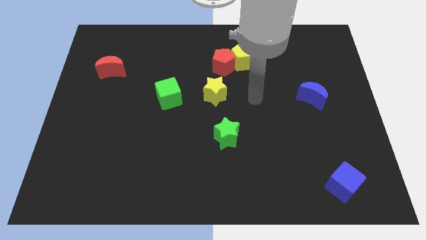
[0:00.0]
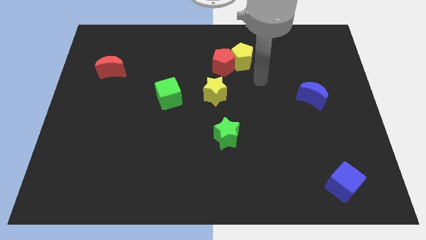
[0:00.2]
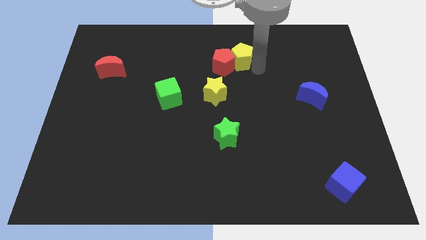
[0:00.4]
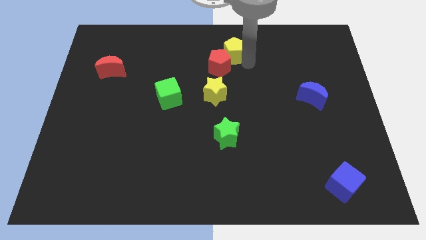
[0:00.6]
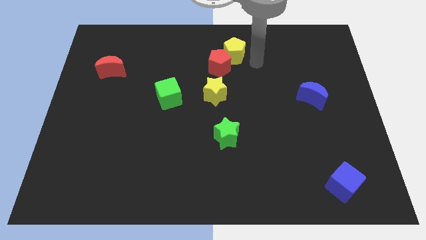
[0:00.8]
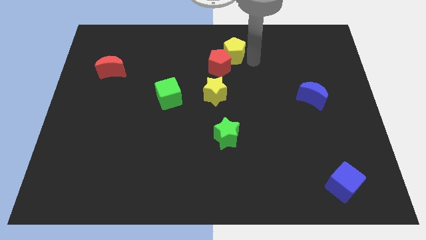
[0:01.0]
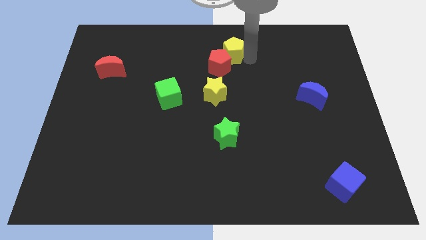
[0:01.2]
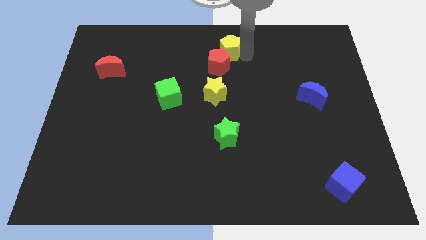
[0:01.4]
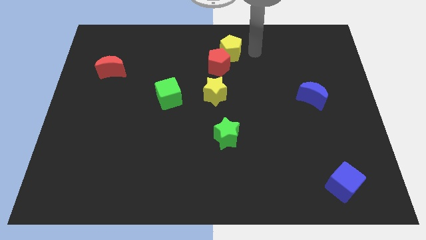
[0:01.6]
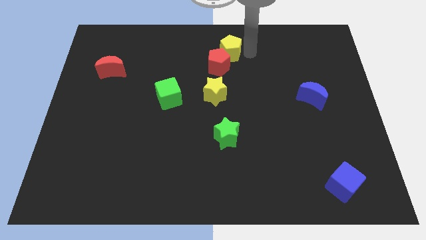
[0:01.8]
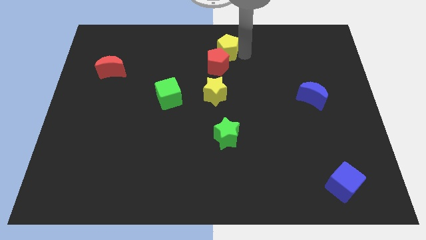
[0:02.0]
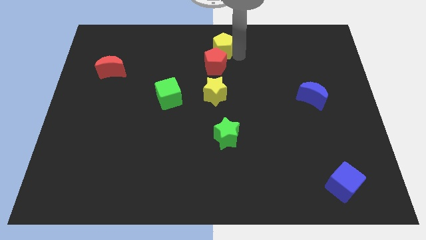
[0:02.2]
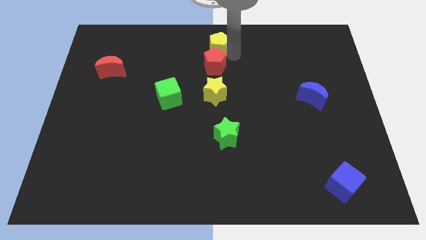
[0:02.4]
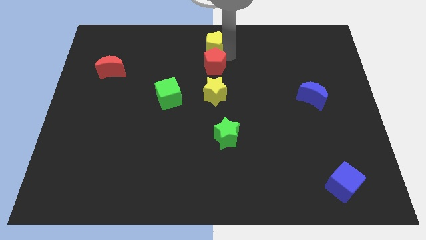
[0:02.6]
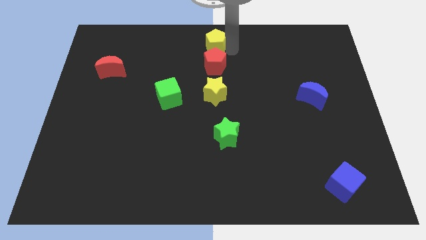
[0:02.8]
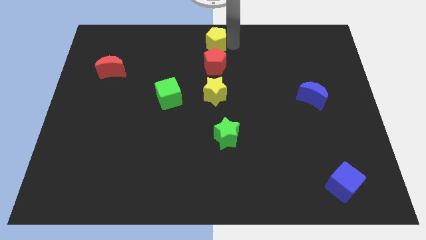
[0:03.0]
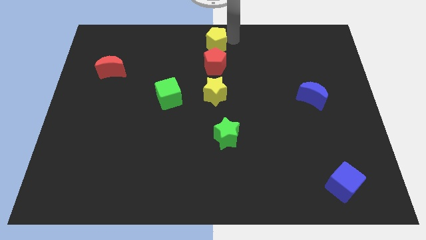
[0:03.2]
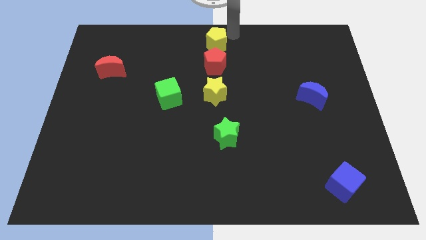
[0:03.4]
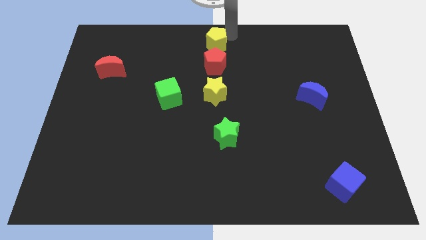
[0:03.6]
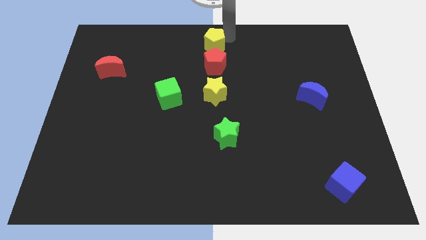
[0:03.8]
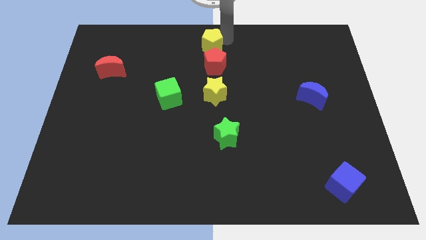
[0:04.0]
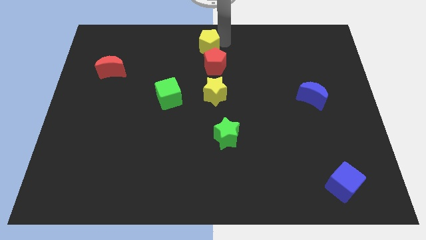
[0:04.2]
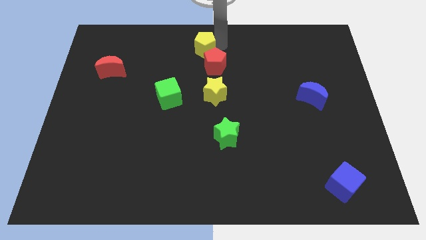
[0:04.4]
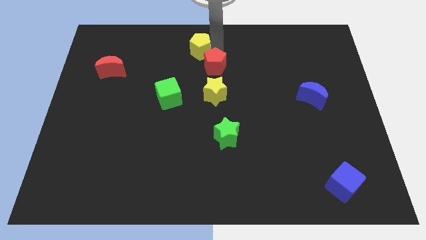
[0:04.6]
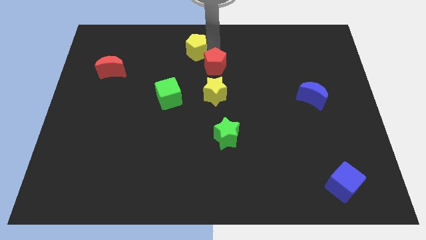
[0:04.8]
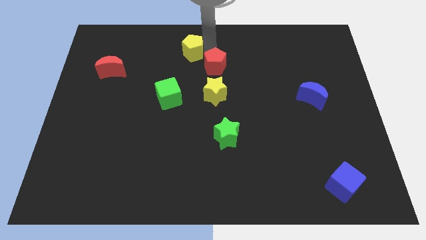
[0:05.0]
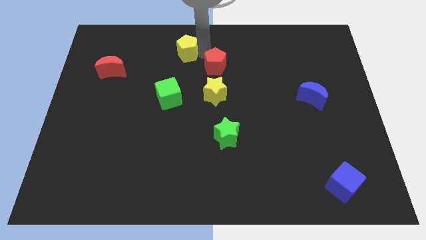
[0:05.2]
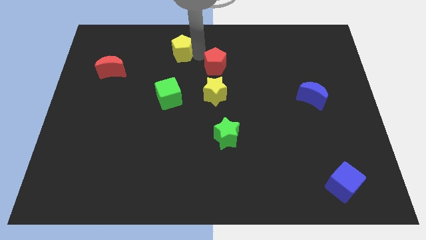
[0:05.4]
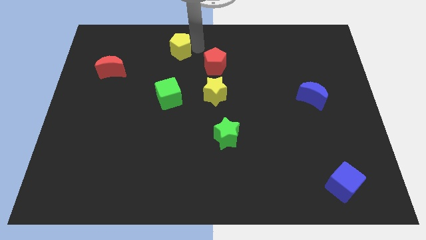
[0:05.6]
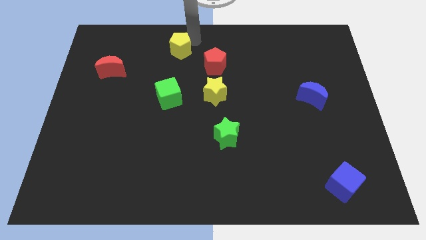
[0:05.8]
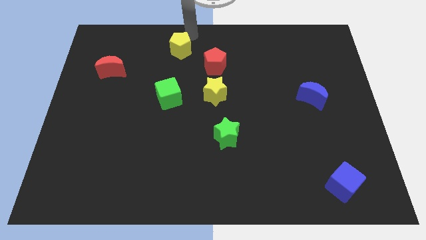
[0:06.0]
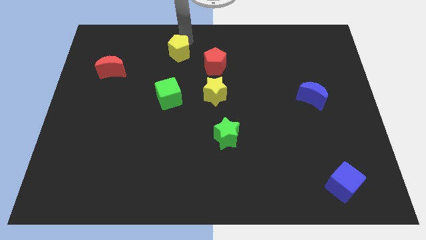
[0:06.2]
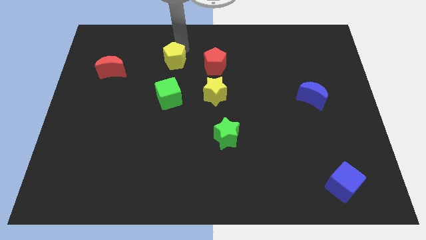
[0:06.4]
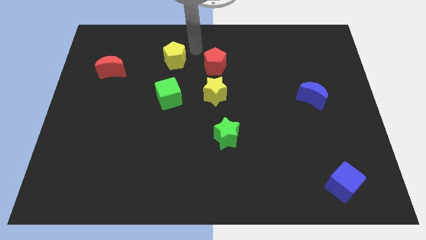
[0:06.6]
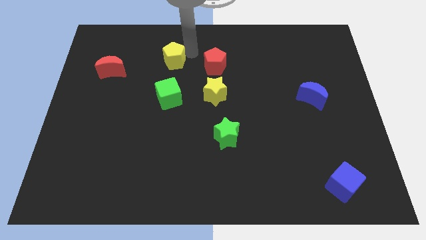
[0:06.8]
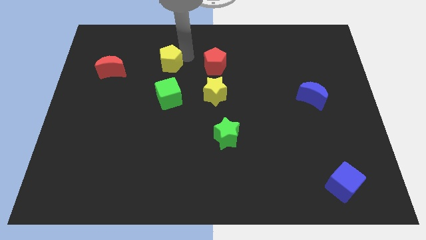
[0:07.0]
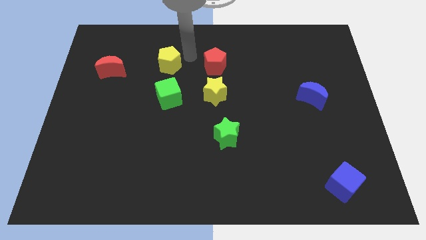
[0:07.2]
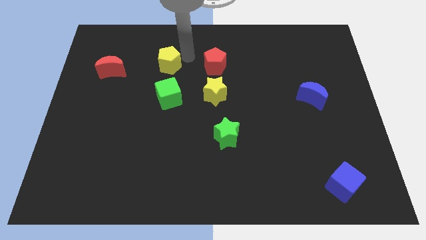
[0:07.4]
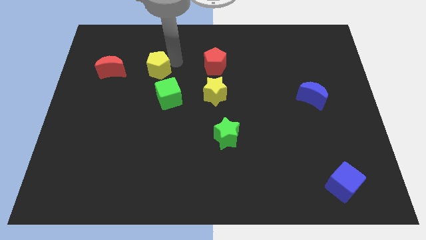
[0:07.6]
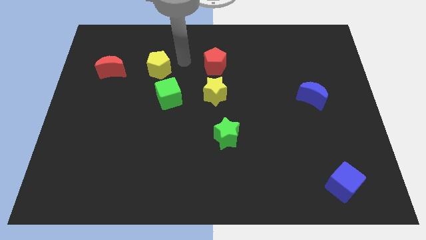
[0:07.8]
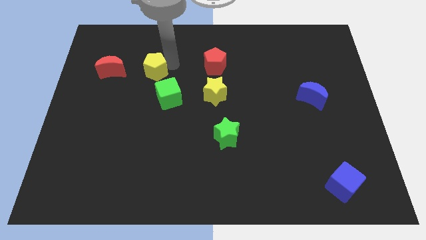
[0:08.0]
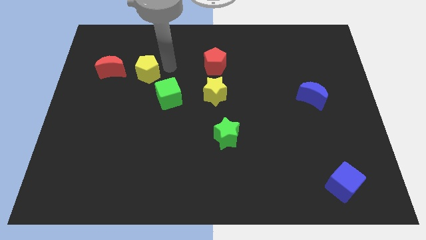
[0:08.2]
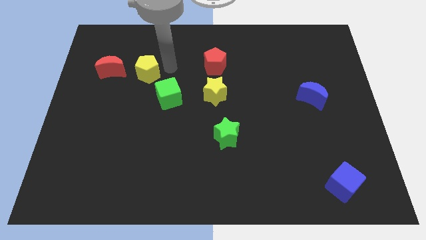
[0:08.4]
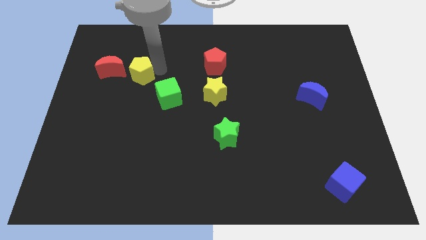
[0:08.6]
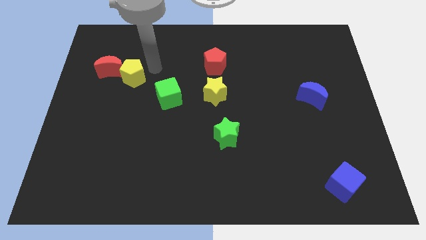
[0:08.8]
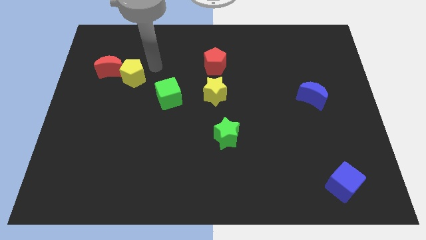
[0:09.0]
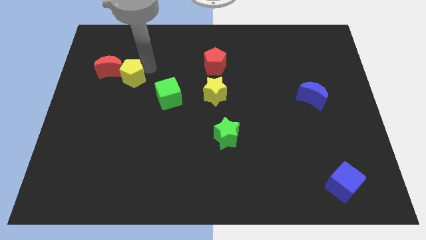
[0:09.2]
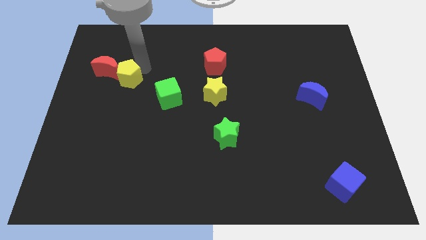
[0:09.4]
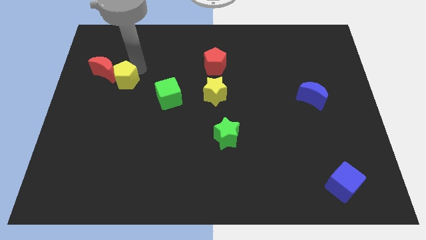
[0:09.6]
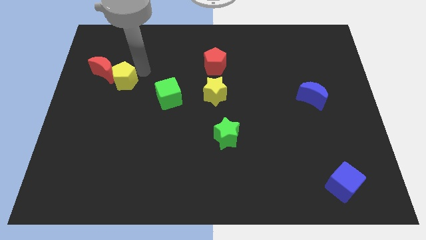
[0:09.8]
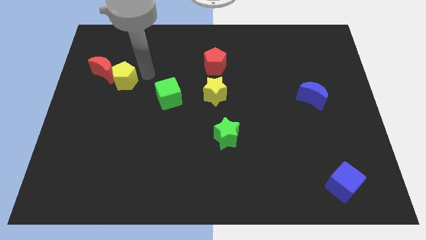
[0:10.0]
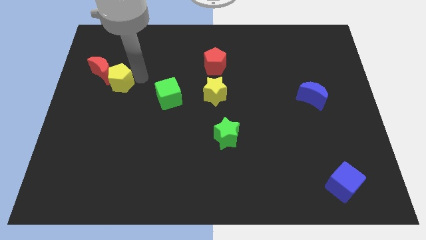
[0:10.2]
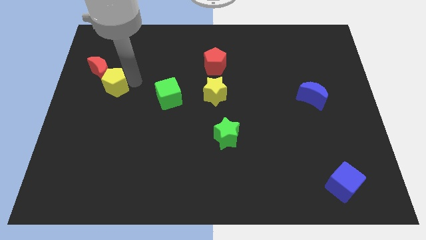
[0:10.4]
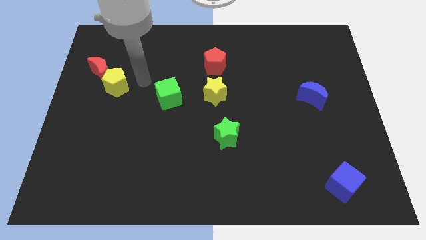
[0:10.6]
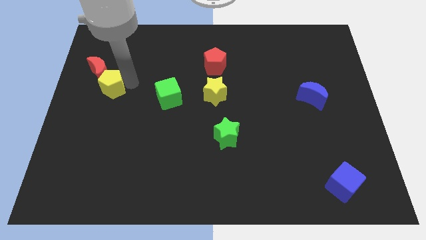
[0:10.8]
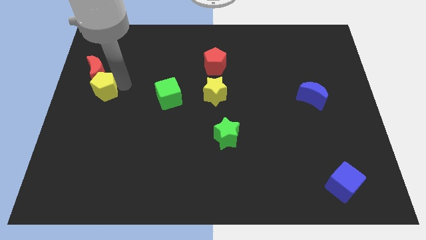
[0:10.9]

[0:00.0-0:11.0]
slide the yellow pentagon to the left side

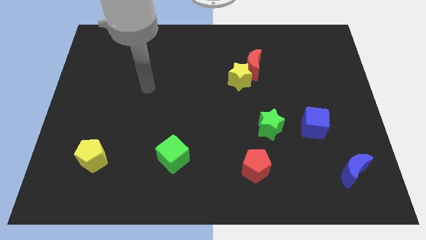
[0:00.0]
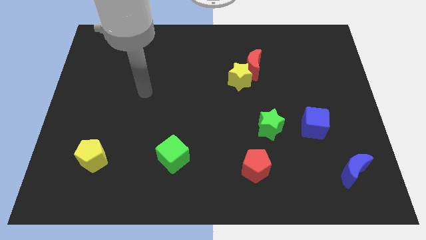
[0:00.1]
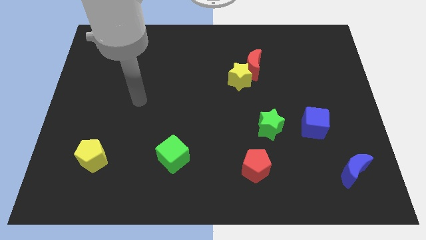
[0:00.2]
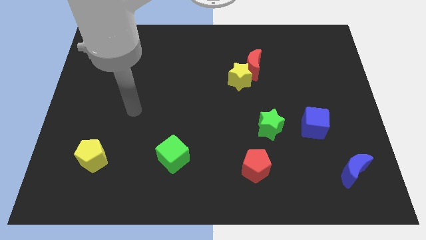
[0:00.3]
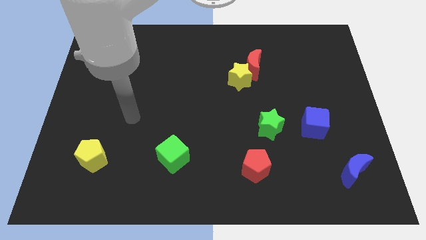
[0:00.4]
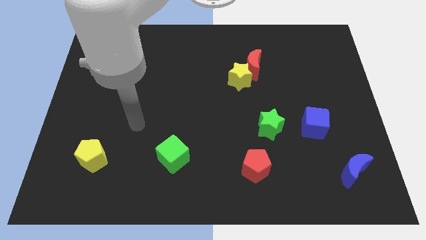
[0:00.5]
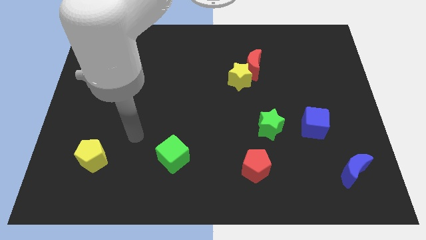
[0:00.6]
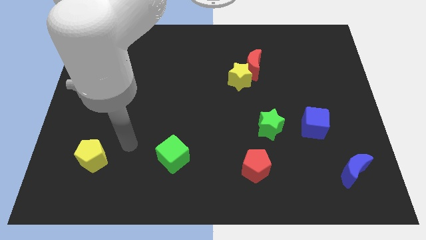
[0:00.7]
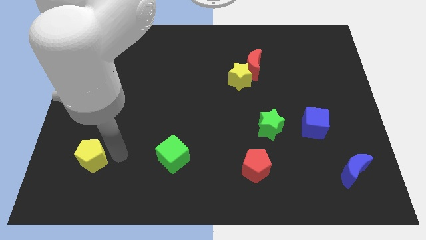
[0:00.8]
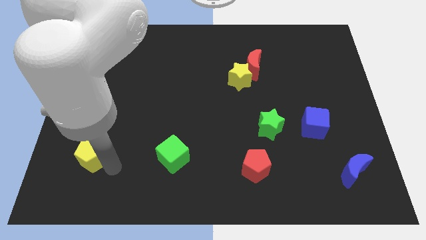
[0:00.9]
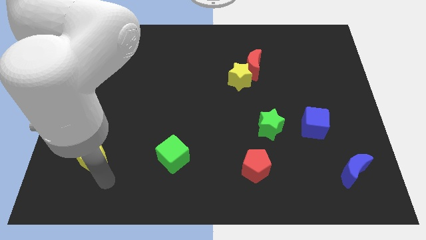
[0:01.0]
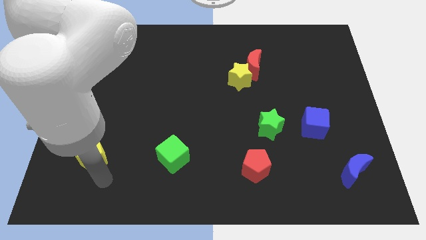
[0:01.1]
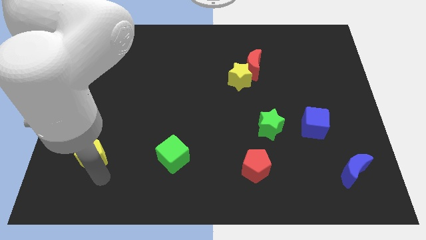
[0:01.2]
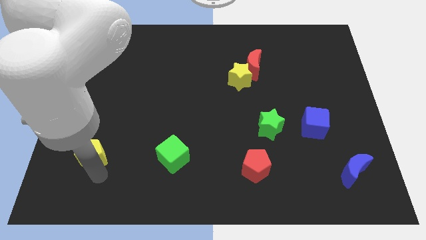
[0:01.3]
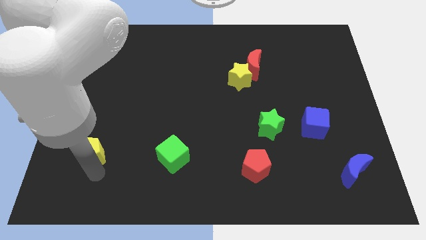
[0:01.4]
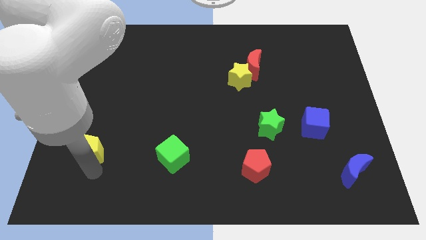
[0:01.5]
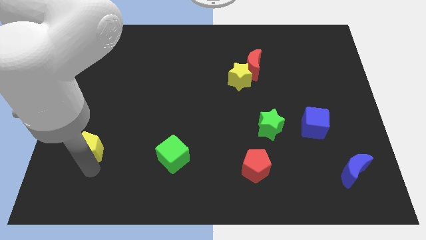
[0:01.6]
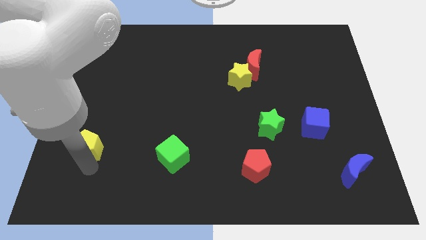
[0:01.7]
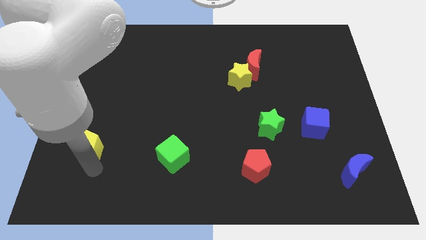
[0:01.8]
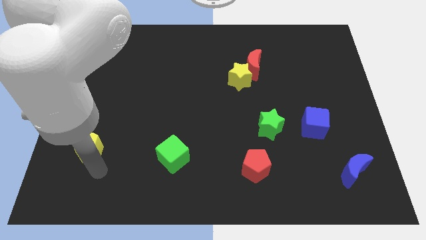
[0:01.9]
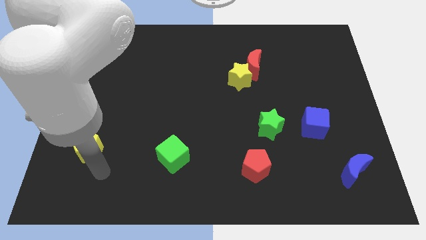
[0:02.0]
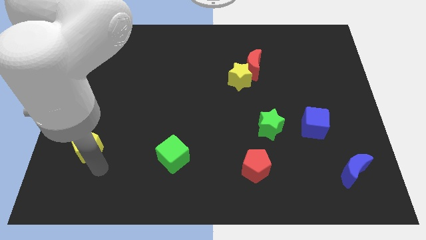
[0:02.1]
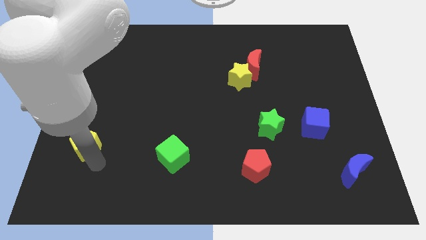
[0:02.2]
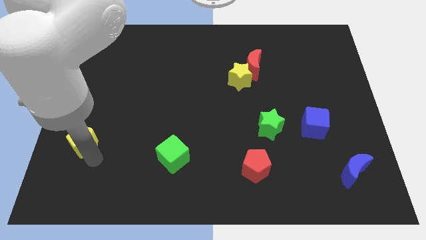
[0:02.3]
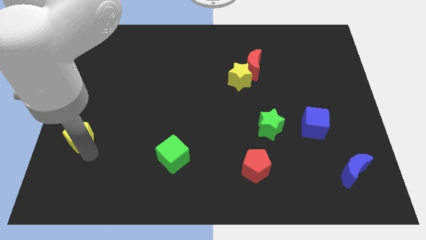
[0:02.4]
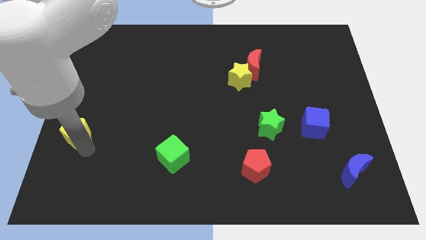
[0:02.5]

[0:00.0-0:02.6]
slide the yellow pentagon to the left side of the board
